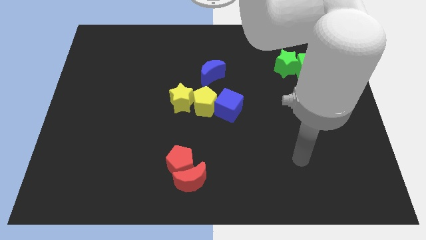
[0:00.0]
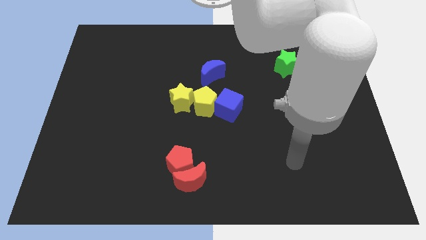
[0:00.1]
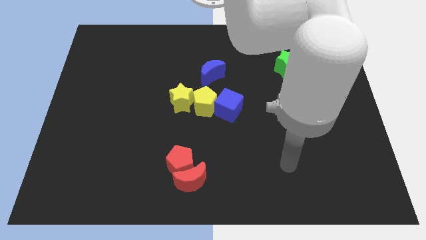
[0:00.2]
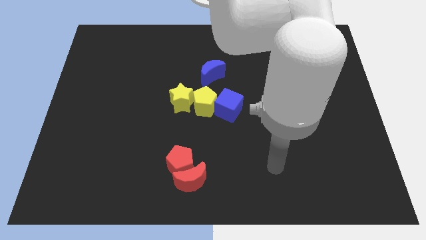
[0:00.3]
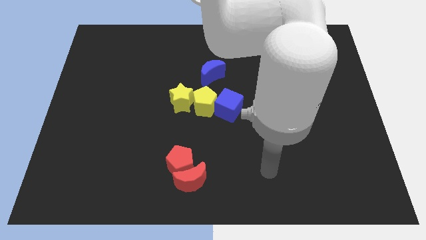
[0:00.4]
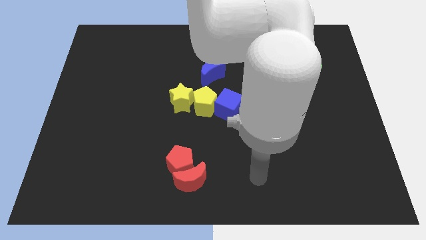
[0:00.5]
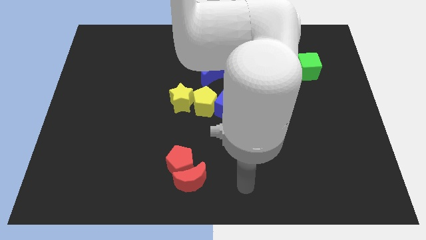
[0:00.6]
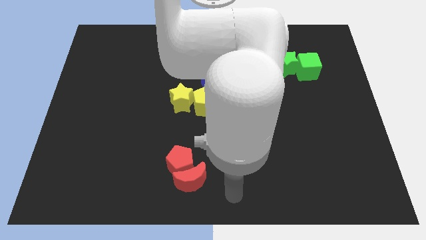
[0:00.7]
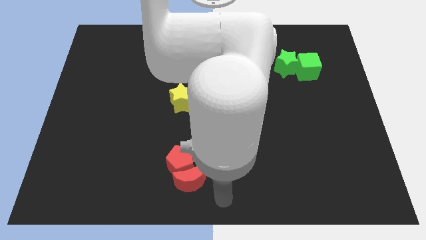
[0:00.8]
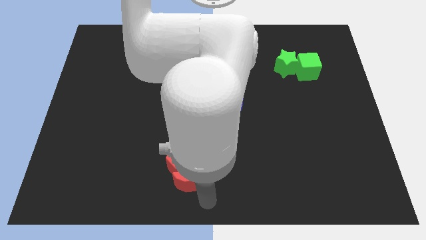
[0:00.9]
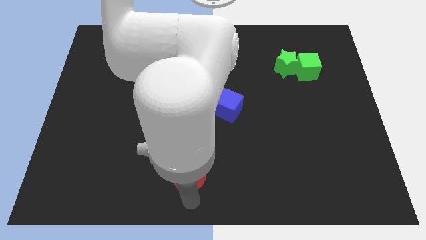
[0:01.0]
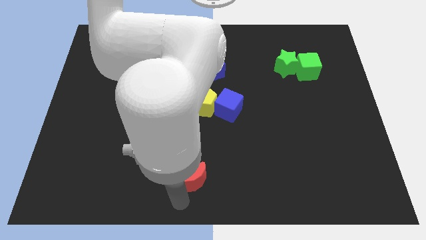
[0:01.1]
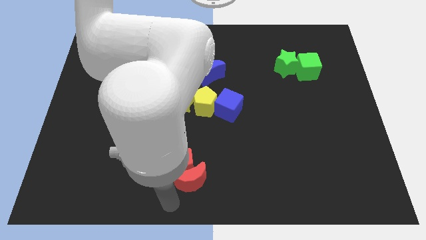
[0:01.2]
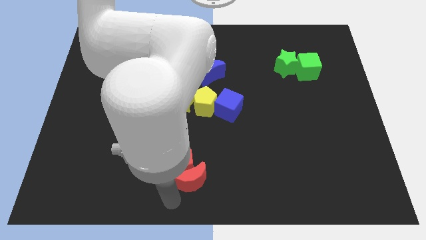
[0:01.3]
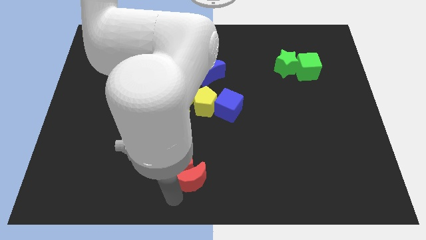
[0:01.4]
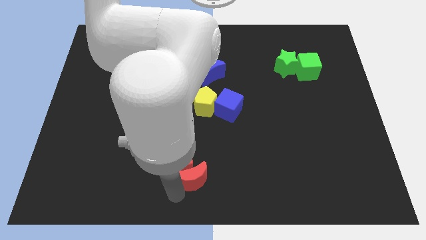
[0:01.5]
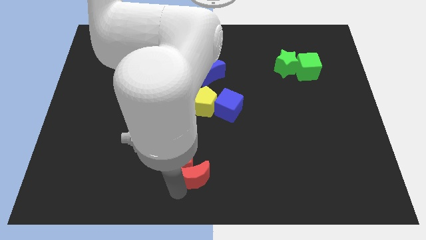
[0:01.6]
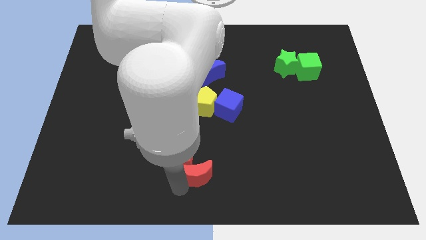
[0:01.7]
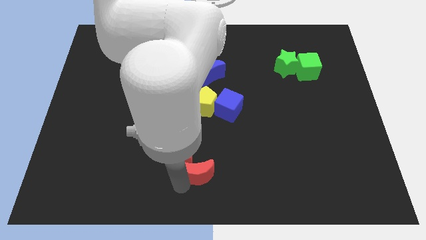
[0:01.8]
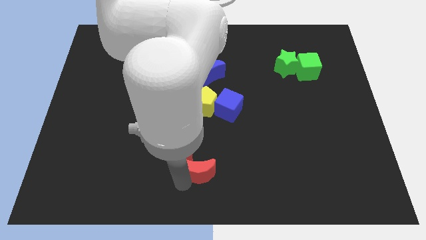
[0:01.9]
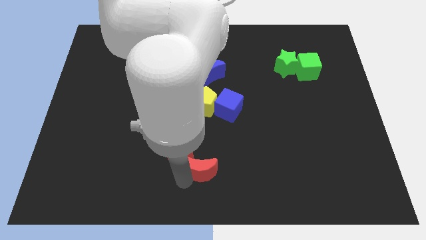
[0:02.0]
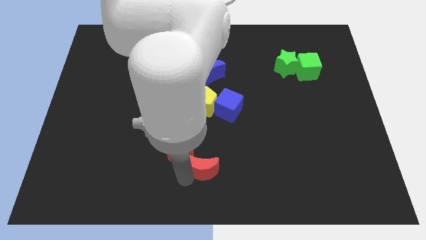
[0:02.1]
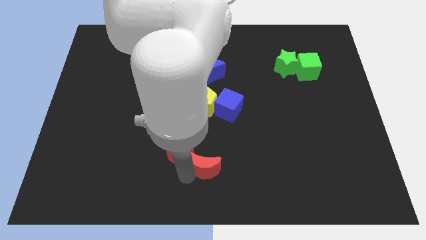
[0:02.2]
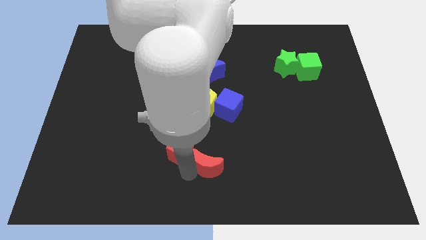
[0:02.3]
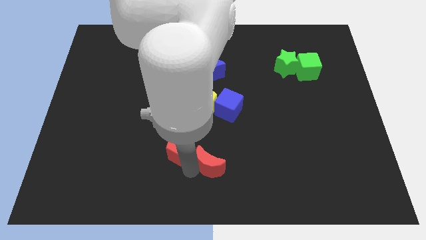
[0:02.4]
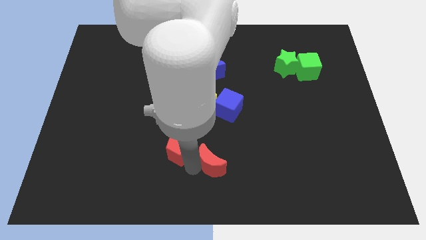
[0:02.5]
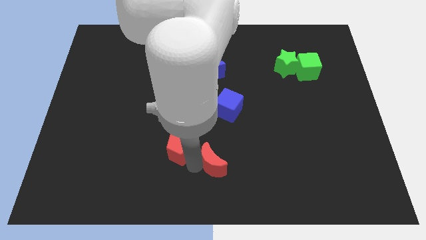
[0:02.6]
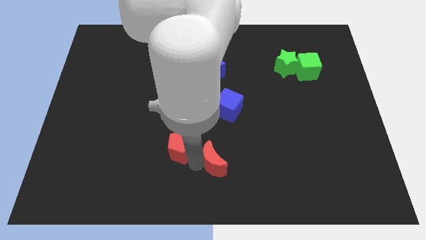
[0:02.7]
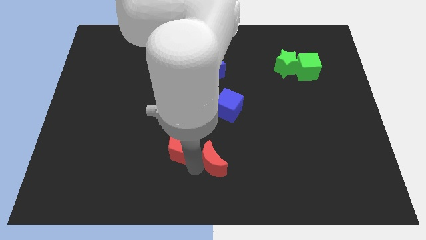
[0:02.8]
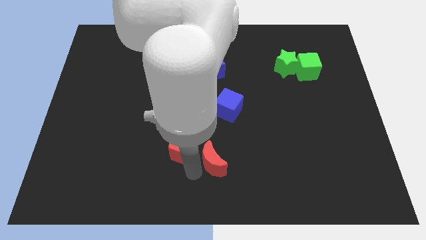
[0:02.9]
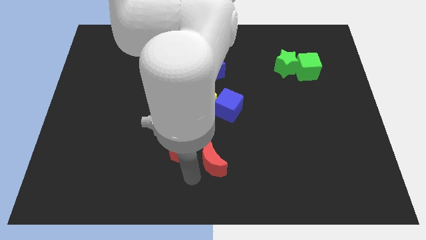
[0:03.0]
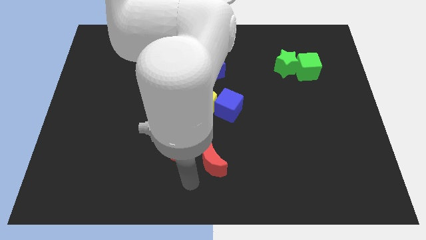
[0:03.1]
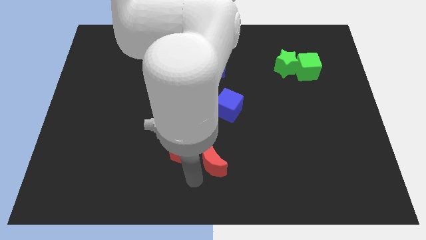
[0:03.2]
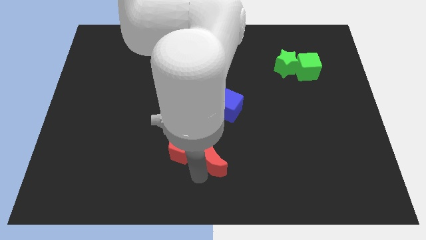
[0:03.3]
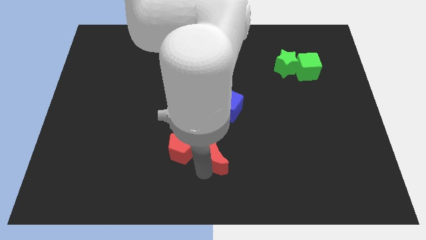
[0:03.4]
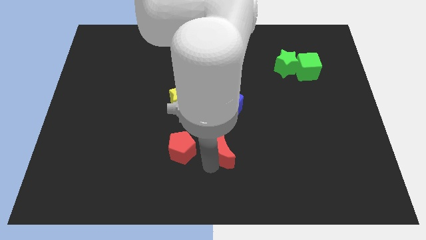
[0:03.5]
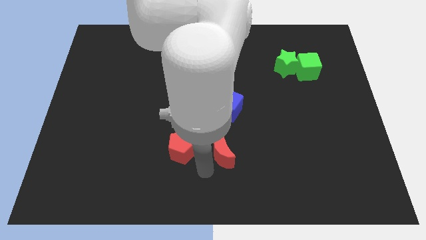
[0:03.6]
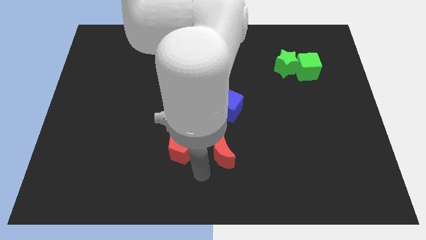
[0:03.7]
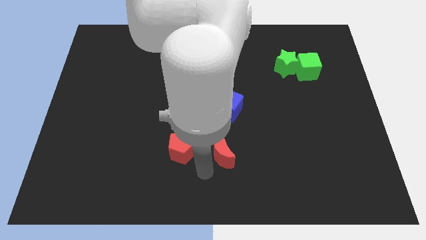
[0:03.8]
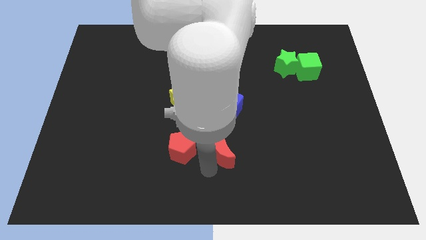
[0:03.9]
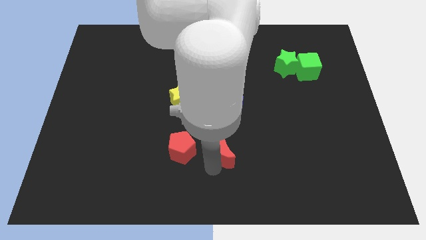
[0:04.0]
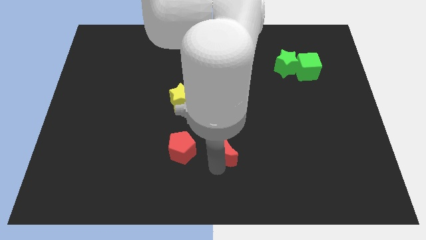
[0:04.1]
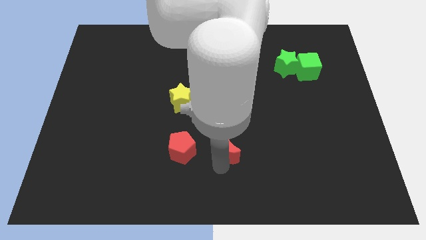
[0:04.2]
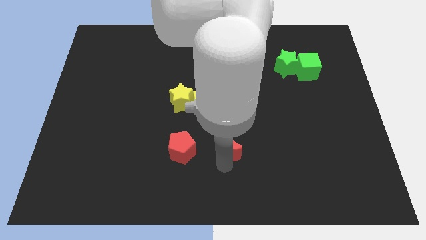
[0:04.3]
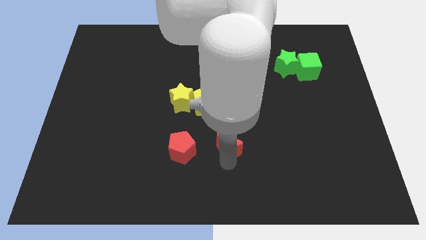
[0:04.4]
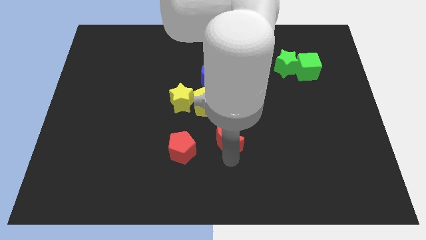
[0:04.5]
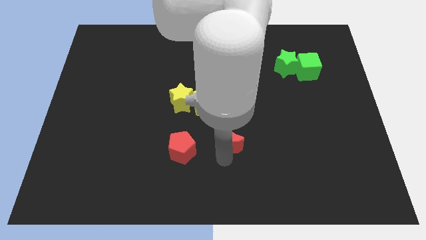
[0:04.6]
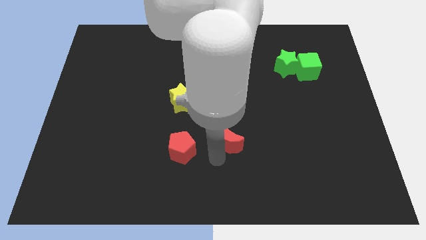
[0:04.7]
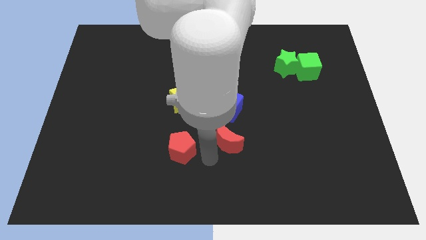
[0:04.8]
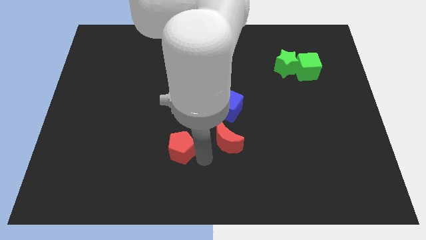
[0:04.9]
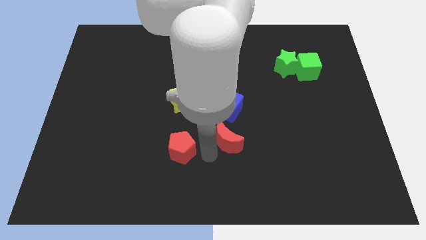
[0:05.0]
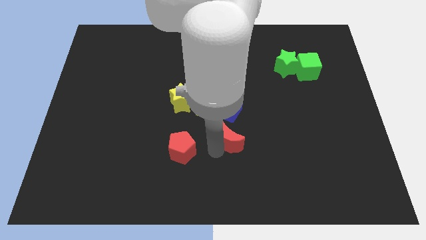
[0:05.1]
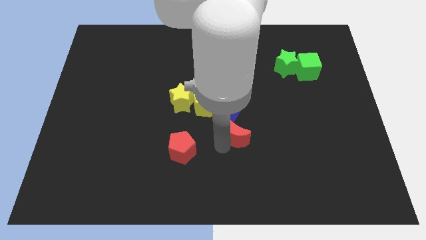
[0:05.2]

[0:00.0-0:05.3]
put the red moon to the bottom right of the blue cube

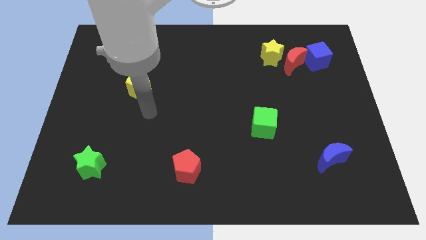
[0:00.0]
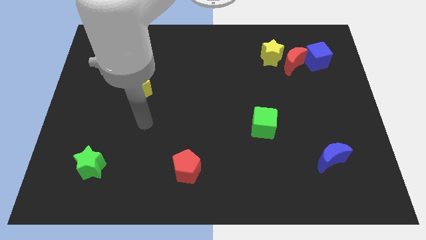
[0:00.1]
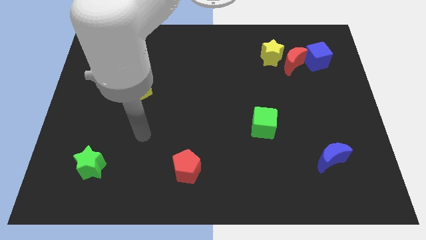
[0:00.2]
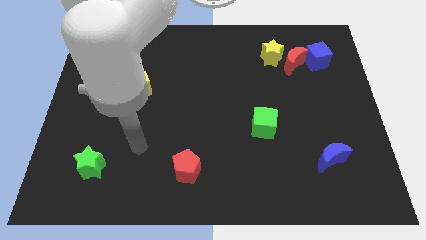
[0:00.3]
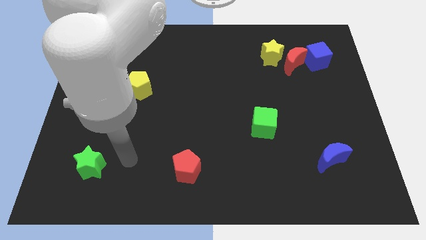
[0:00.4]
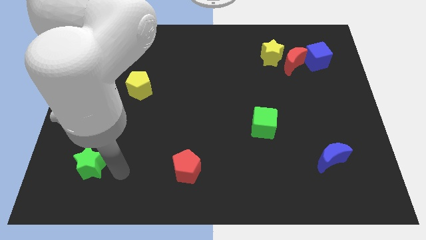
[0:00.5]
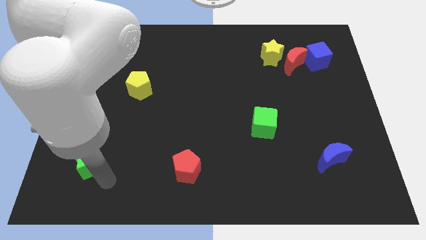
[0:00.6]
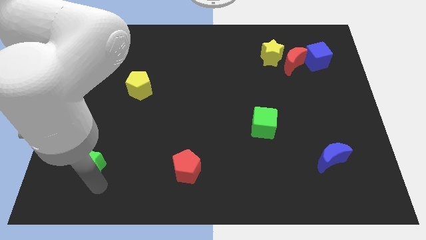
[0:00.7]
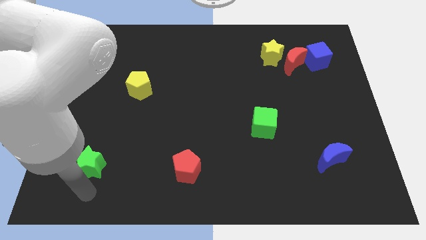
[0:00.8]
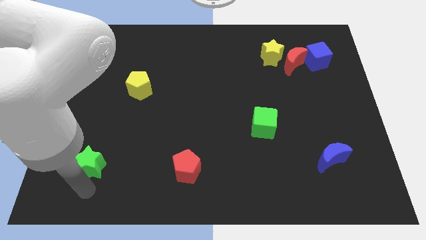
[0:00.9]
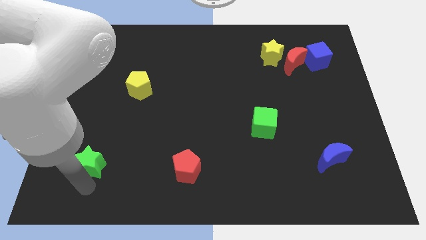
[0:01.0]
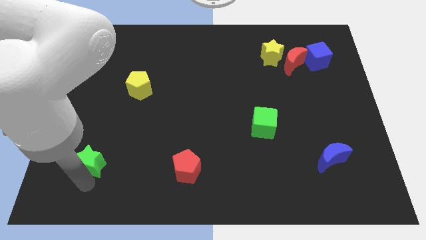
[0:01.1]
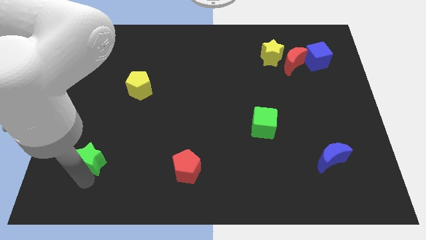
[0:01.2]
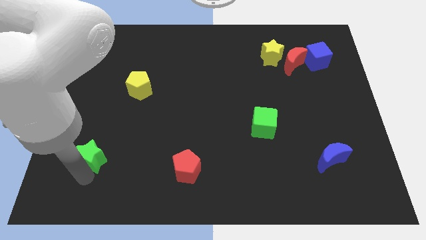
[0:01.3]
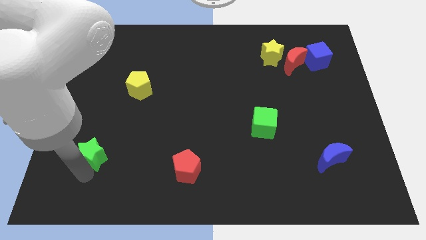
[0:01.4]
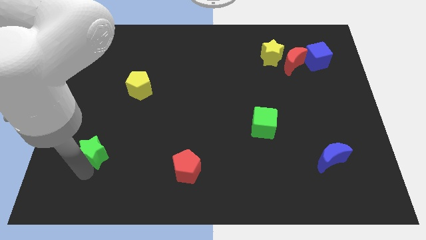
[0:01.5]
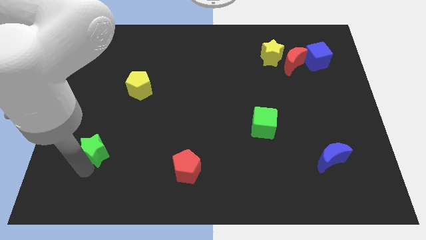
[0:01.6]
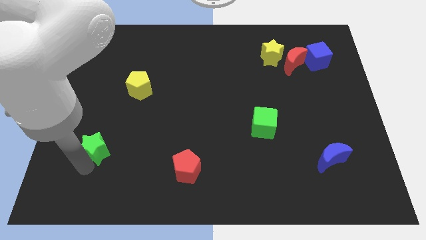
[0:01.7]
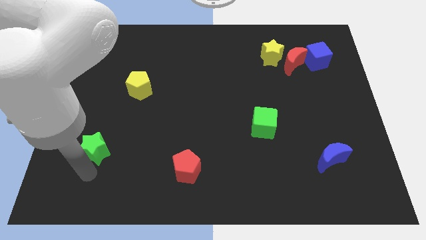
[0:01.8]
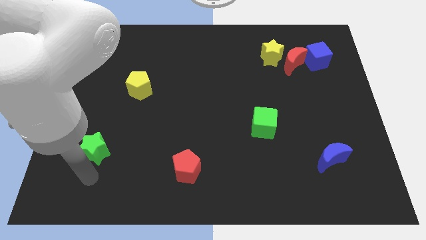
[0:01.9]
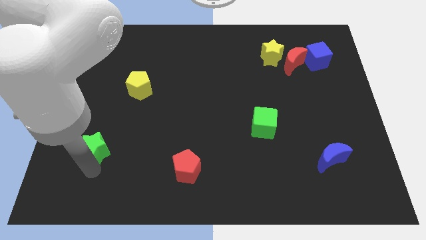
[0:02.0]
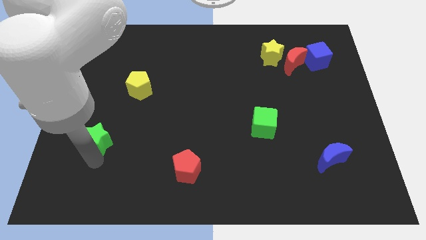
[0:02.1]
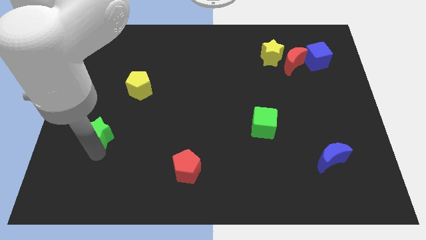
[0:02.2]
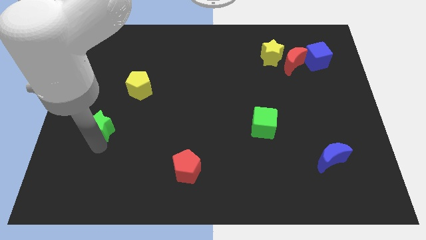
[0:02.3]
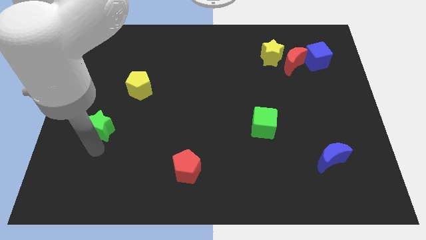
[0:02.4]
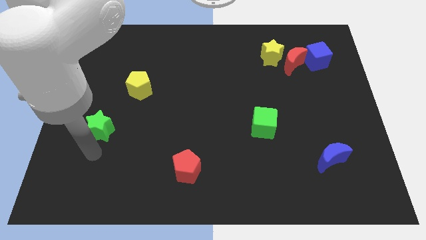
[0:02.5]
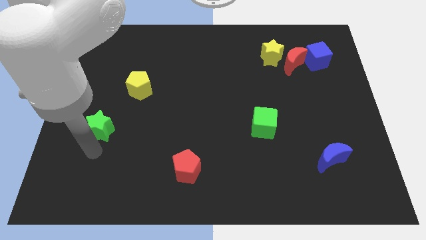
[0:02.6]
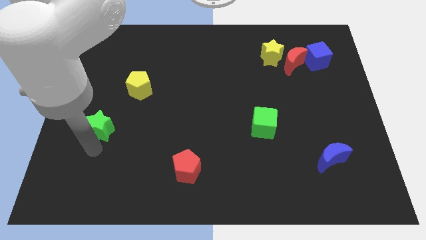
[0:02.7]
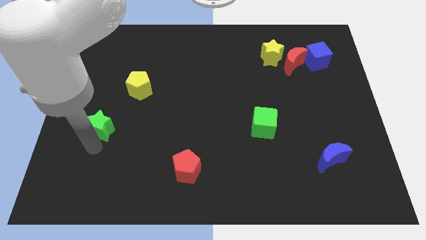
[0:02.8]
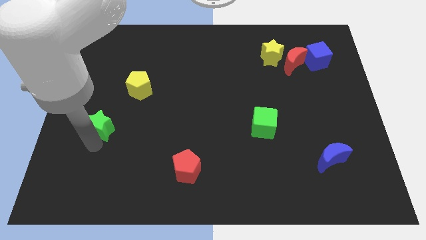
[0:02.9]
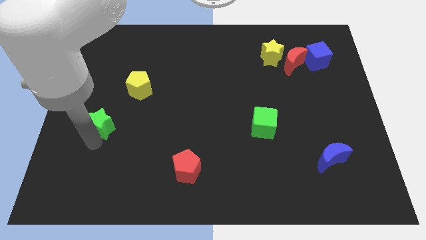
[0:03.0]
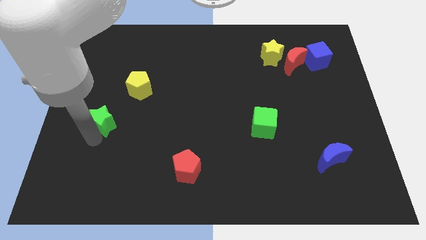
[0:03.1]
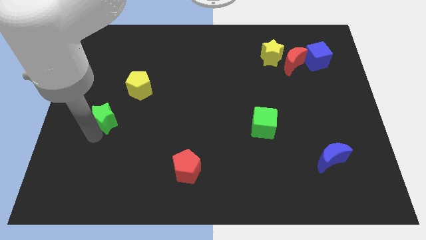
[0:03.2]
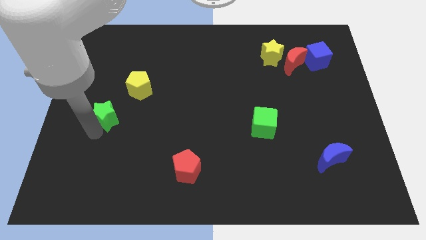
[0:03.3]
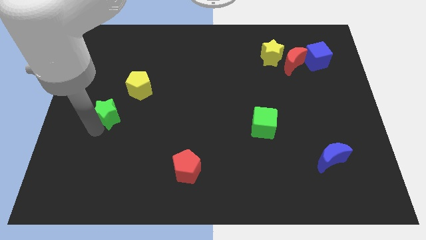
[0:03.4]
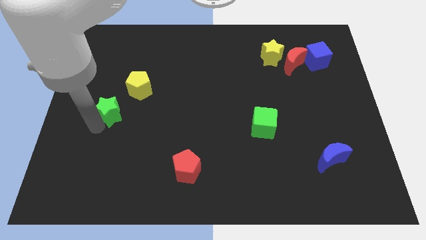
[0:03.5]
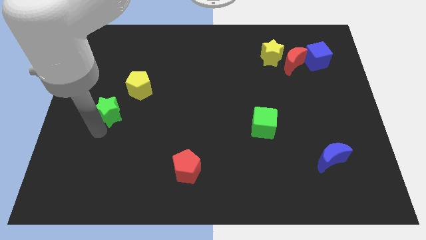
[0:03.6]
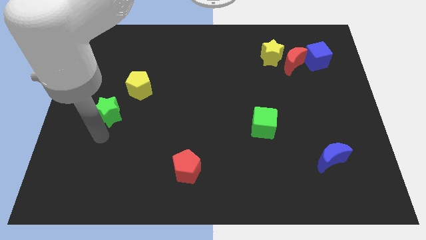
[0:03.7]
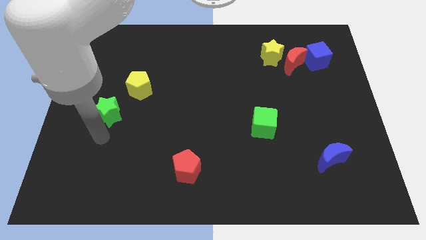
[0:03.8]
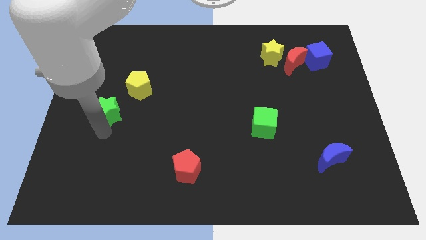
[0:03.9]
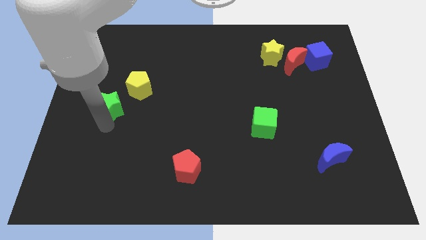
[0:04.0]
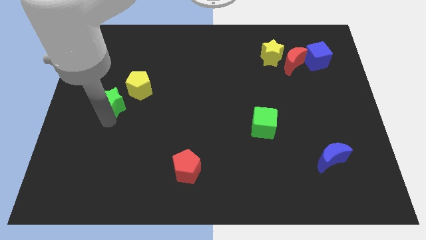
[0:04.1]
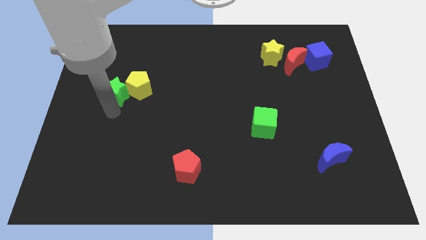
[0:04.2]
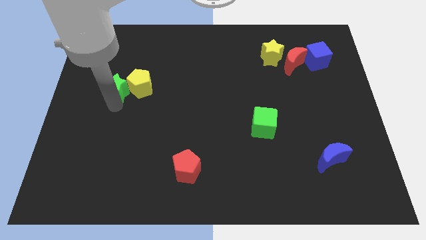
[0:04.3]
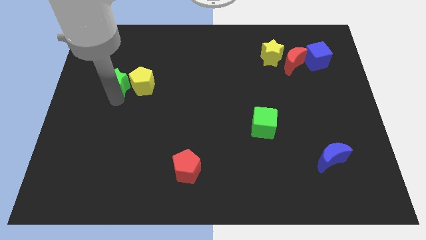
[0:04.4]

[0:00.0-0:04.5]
push the green star to the top left side of the yellow pentagon
